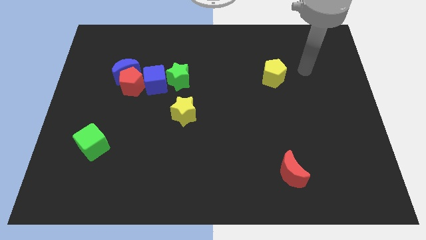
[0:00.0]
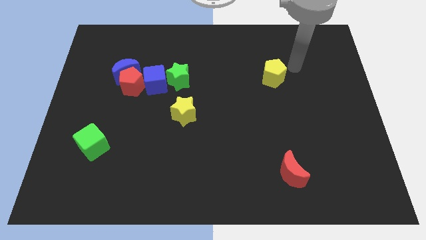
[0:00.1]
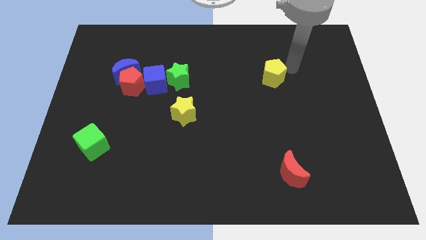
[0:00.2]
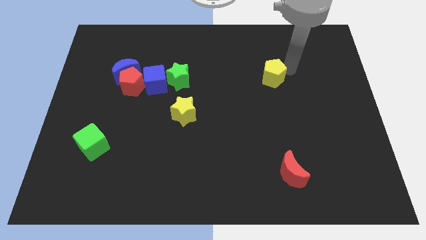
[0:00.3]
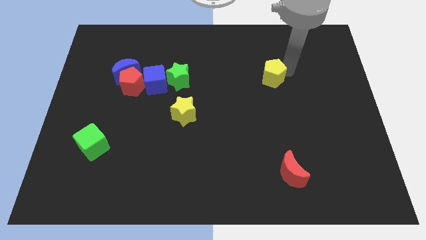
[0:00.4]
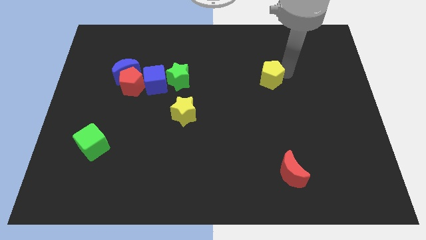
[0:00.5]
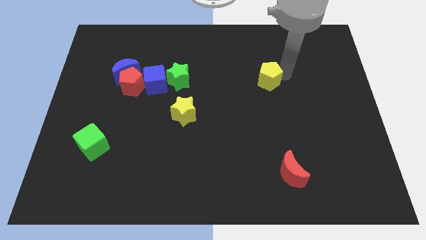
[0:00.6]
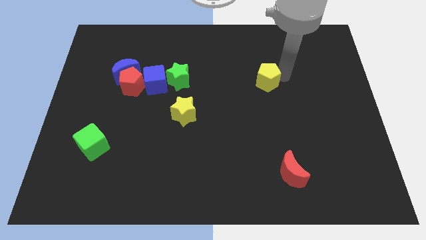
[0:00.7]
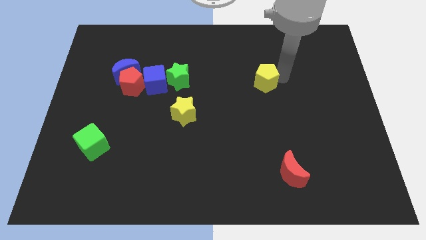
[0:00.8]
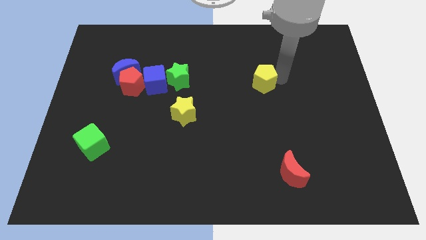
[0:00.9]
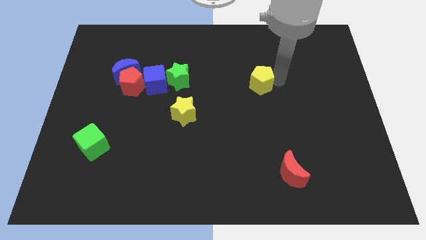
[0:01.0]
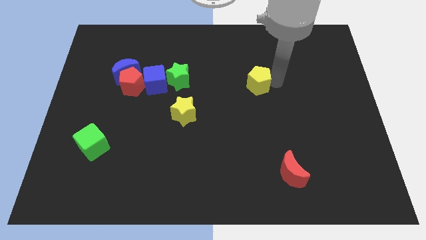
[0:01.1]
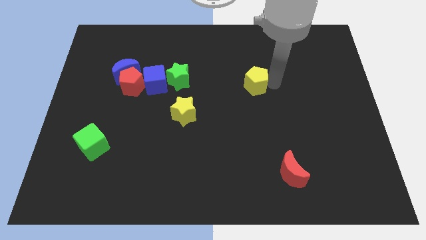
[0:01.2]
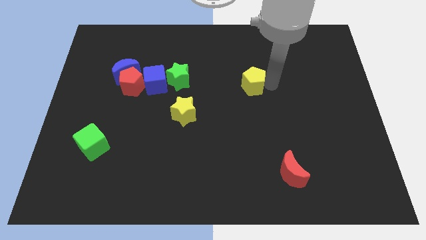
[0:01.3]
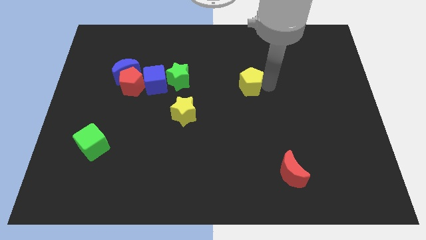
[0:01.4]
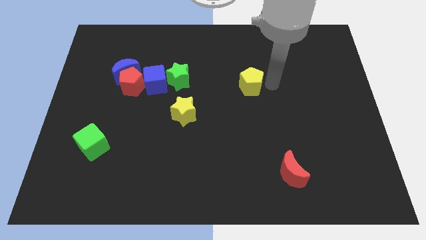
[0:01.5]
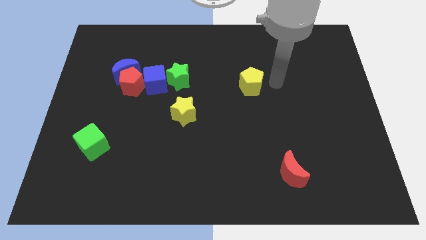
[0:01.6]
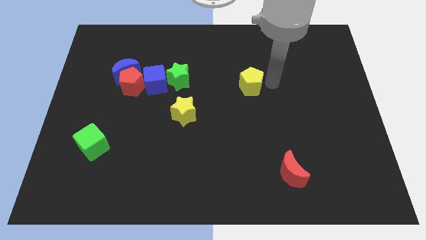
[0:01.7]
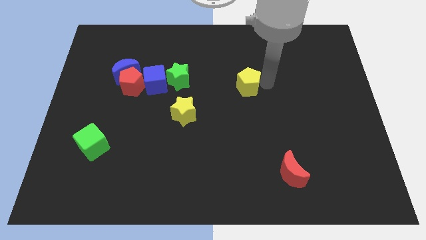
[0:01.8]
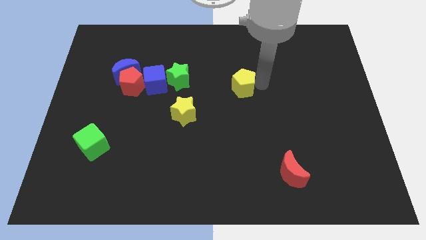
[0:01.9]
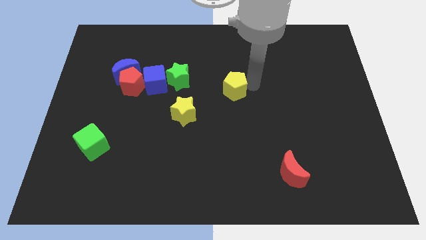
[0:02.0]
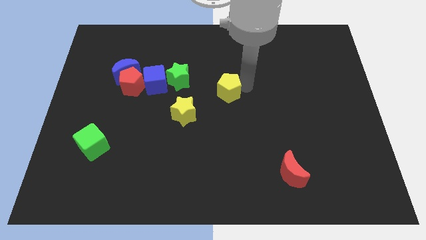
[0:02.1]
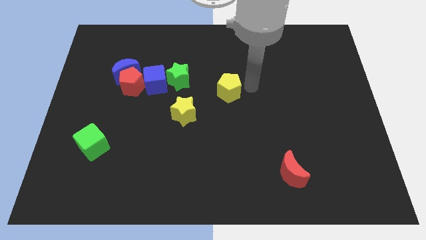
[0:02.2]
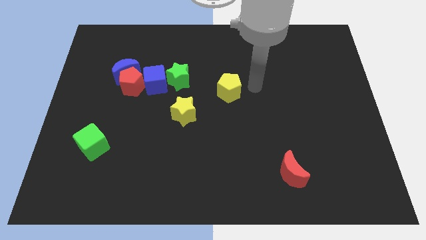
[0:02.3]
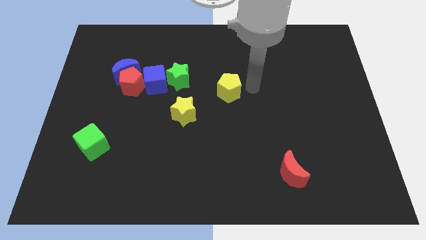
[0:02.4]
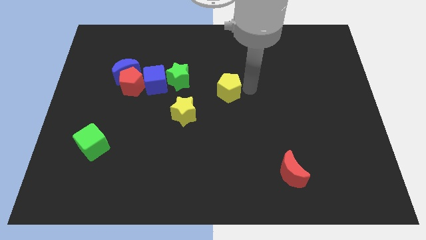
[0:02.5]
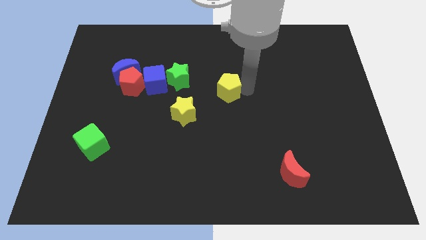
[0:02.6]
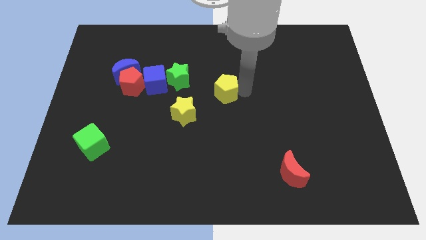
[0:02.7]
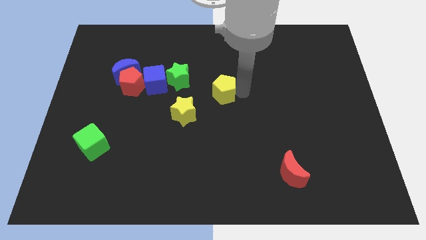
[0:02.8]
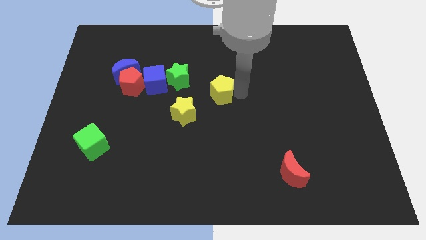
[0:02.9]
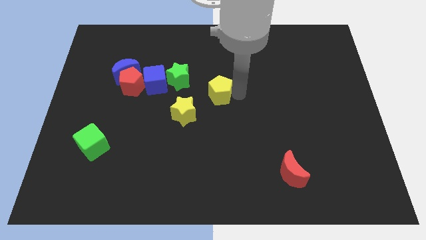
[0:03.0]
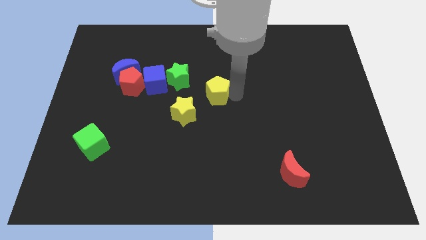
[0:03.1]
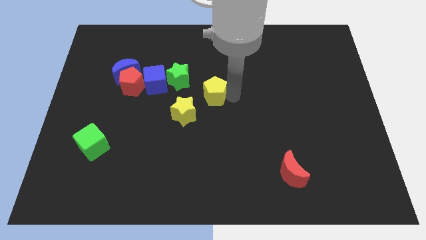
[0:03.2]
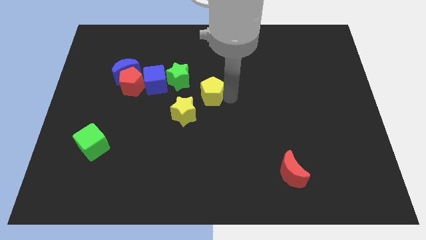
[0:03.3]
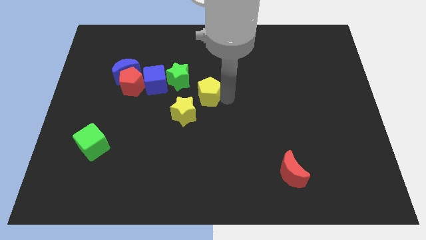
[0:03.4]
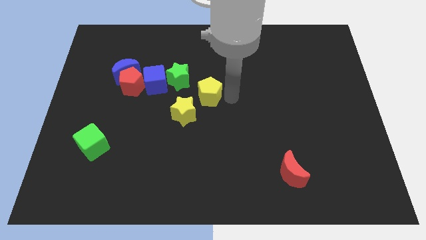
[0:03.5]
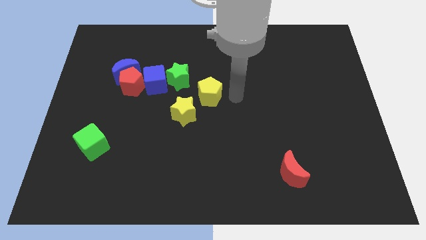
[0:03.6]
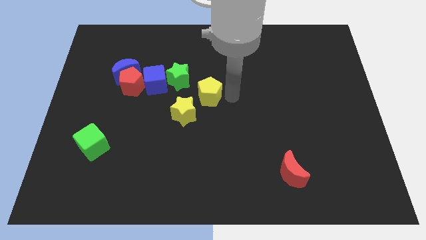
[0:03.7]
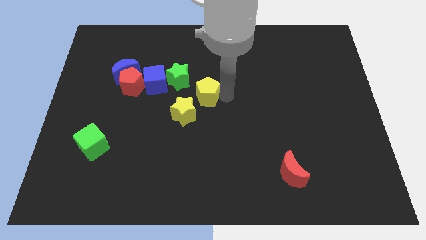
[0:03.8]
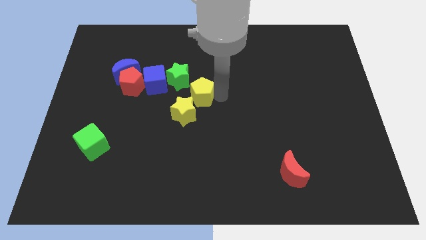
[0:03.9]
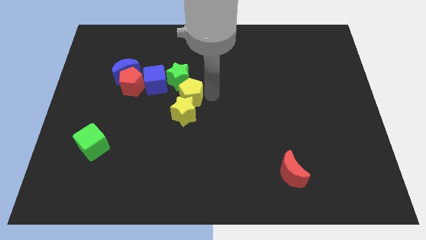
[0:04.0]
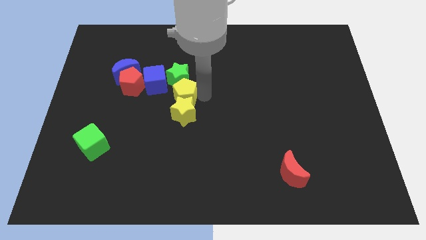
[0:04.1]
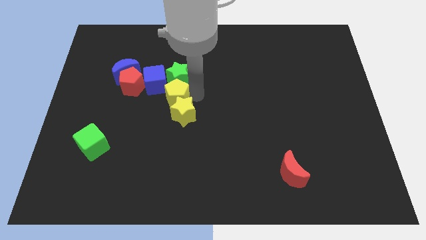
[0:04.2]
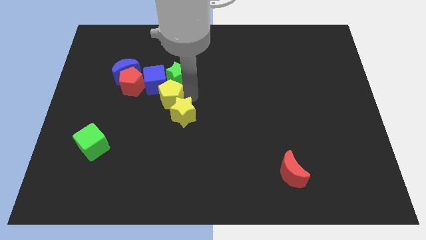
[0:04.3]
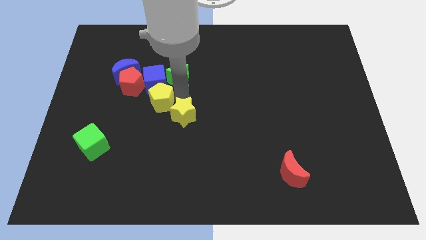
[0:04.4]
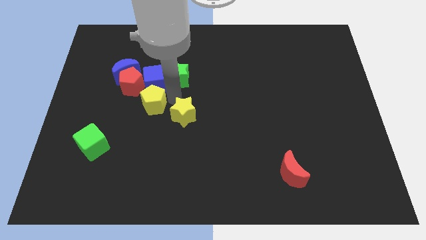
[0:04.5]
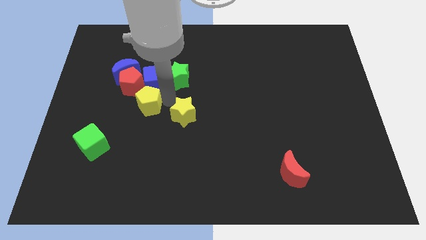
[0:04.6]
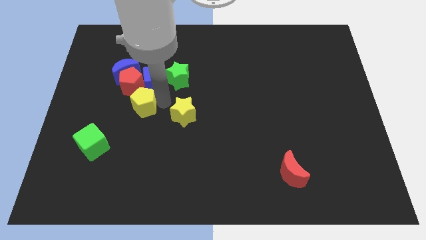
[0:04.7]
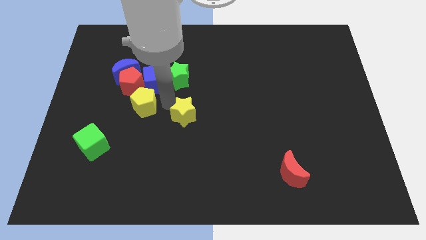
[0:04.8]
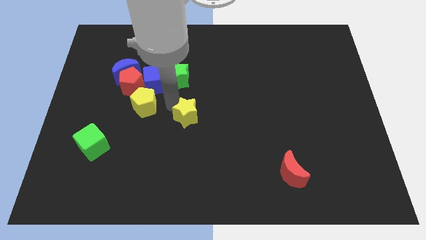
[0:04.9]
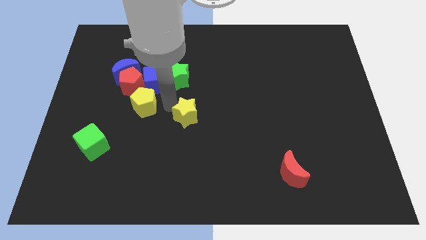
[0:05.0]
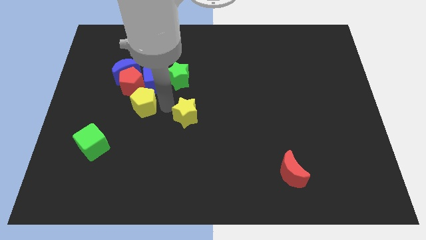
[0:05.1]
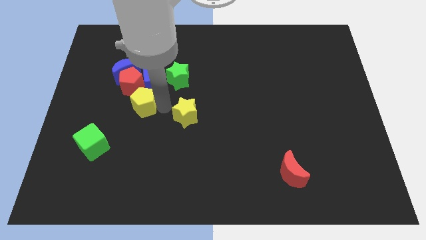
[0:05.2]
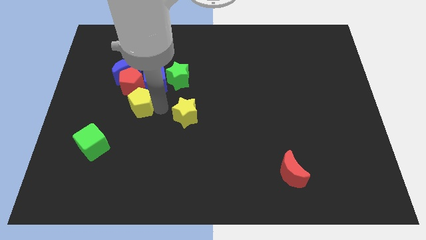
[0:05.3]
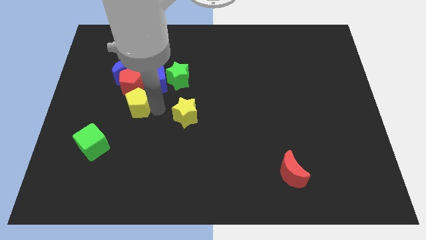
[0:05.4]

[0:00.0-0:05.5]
move the yellow pentagon to the bottom side of the blue moon
